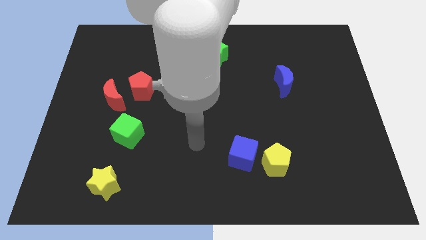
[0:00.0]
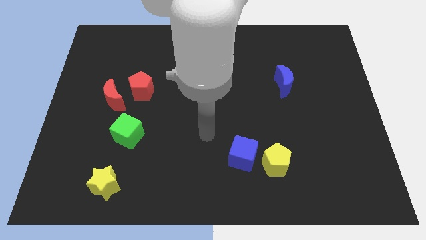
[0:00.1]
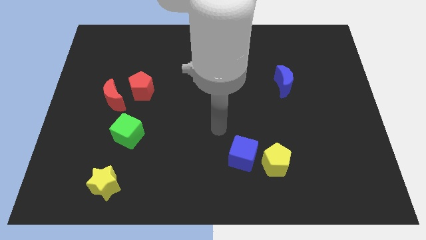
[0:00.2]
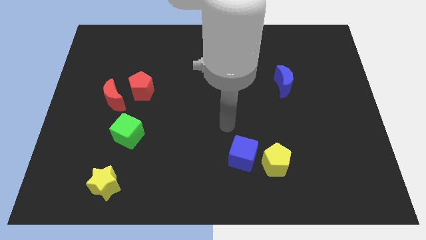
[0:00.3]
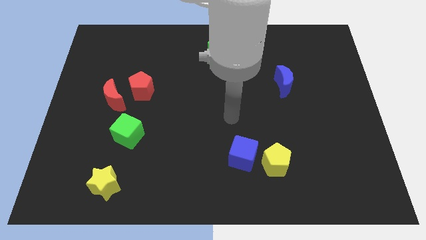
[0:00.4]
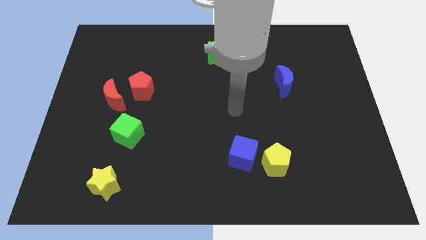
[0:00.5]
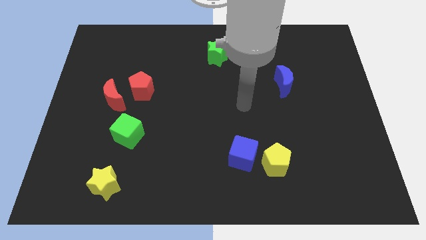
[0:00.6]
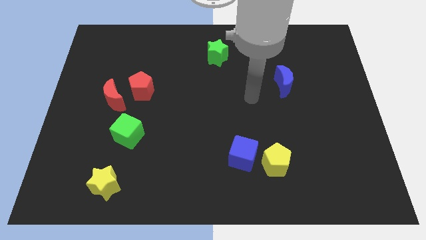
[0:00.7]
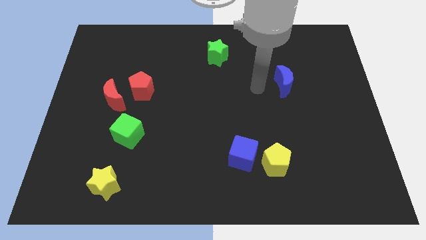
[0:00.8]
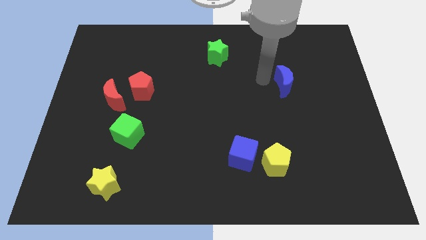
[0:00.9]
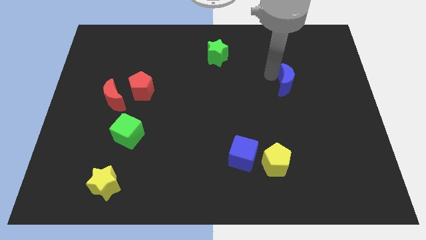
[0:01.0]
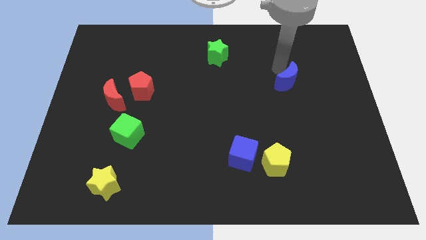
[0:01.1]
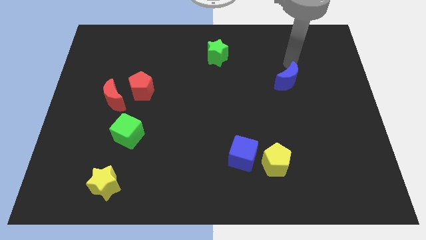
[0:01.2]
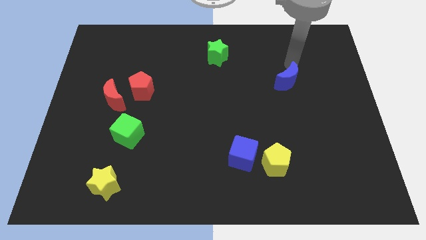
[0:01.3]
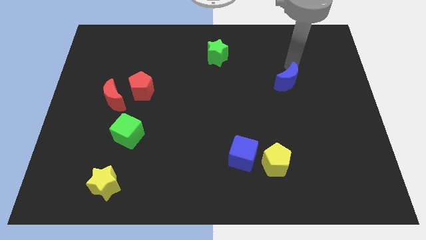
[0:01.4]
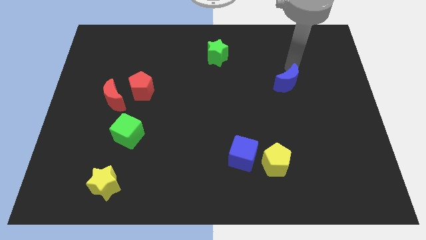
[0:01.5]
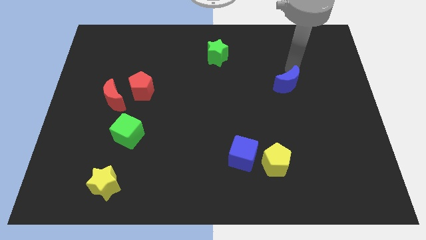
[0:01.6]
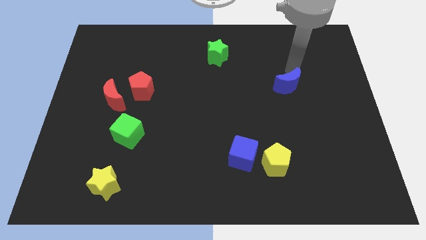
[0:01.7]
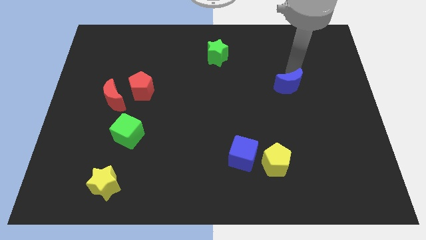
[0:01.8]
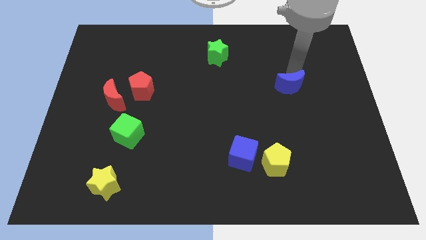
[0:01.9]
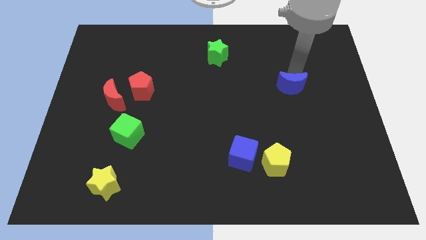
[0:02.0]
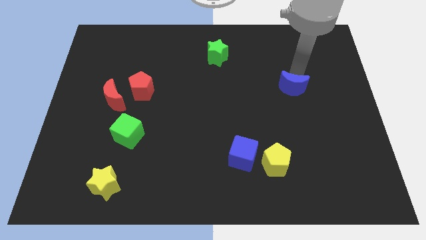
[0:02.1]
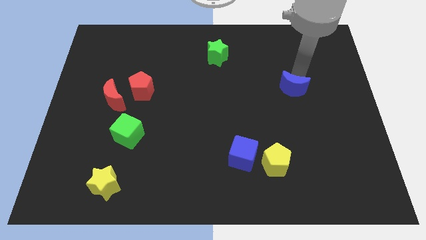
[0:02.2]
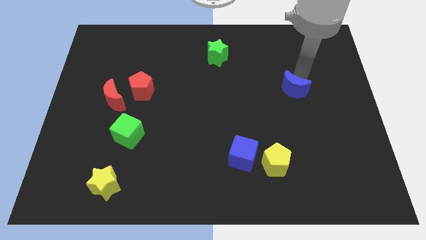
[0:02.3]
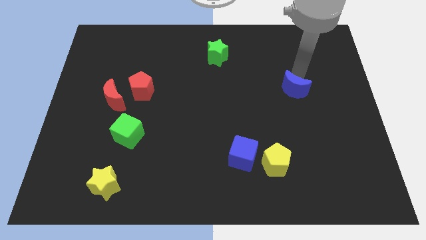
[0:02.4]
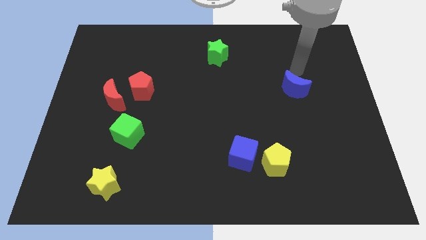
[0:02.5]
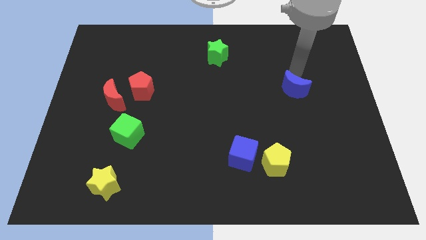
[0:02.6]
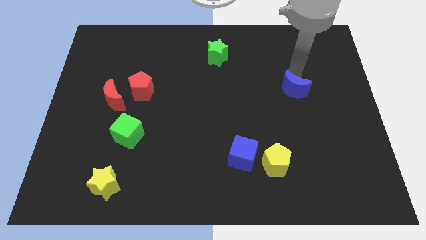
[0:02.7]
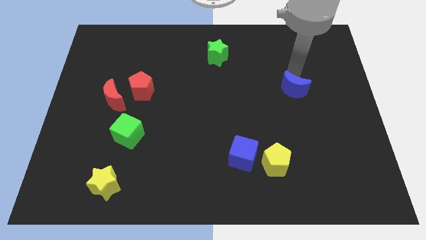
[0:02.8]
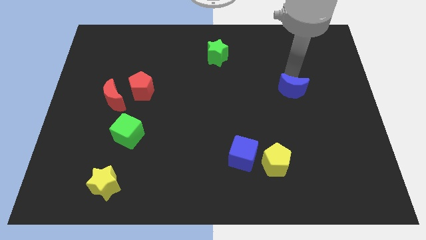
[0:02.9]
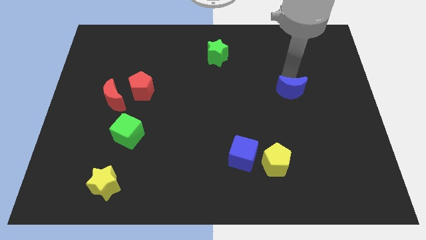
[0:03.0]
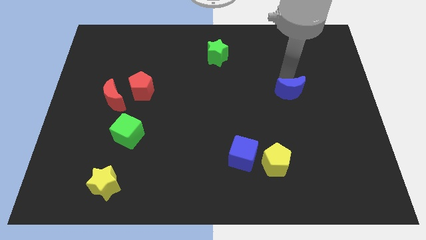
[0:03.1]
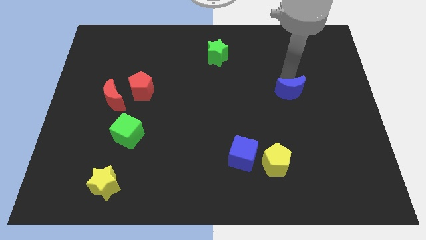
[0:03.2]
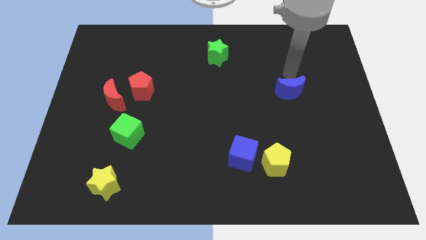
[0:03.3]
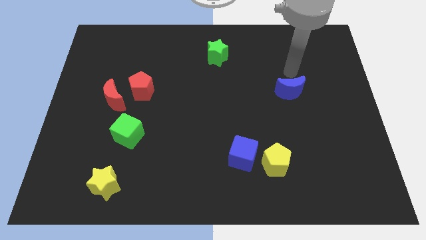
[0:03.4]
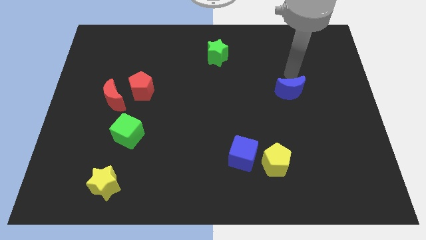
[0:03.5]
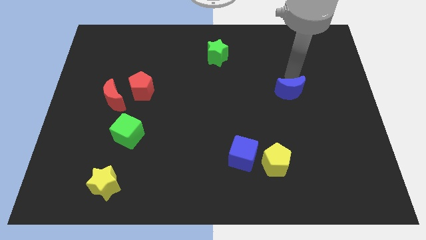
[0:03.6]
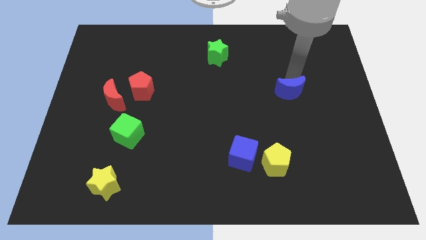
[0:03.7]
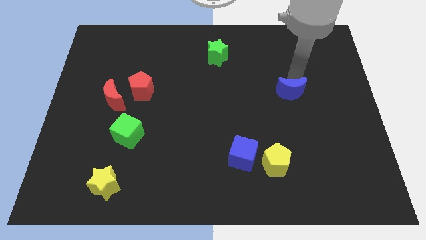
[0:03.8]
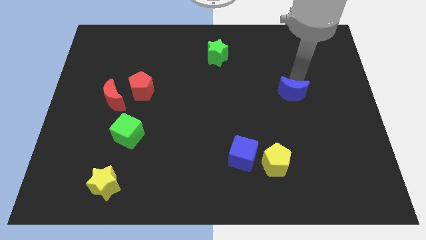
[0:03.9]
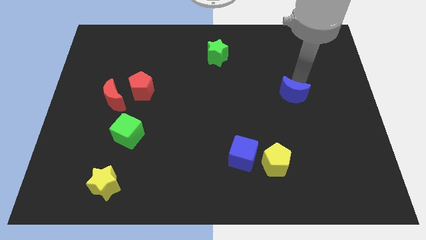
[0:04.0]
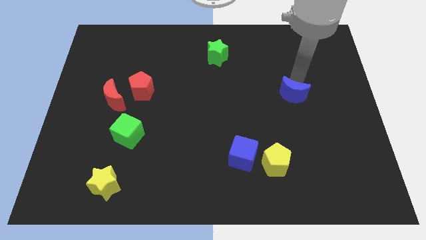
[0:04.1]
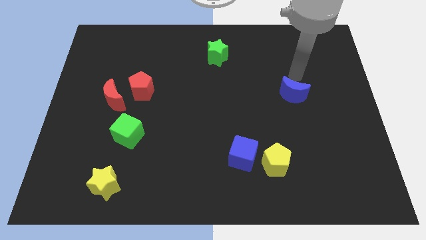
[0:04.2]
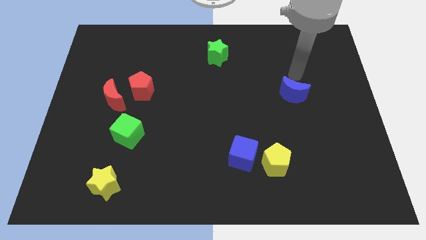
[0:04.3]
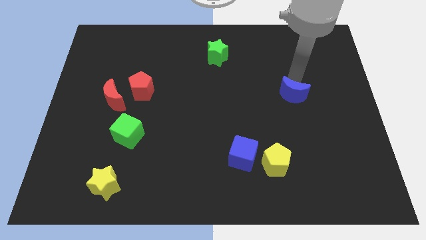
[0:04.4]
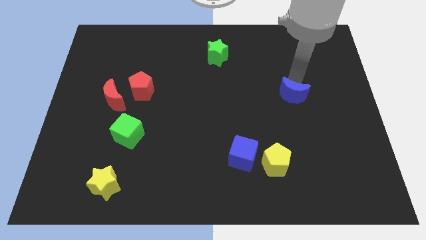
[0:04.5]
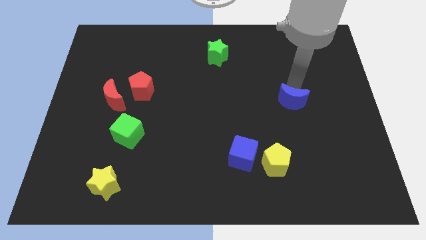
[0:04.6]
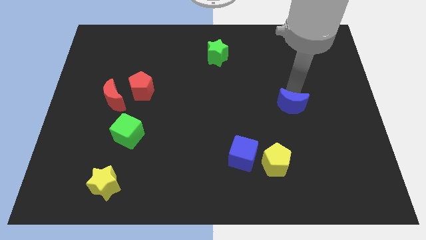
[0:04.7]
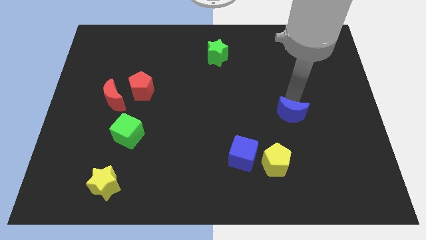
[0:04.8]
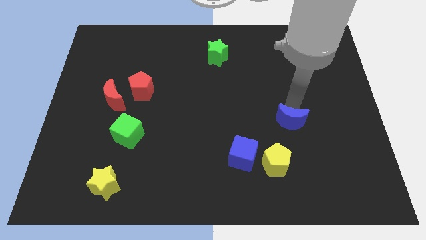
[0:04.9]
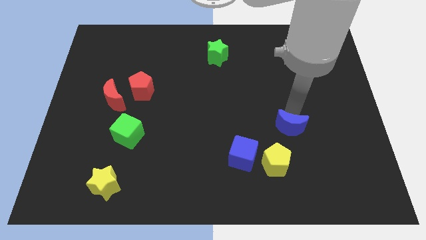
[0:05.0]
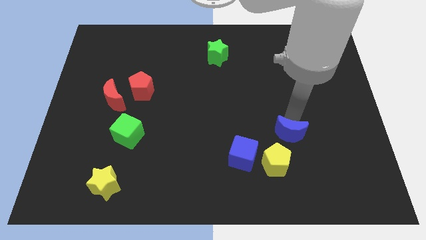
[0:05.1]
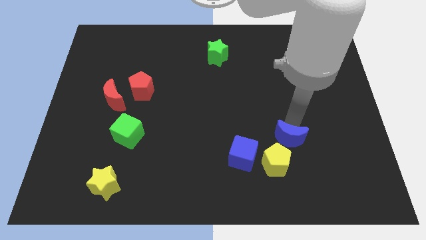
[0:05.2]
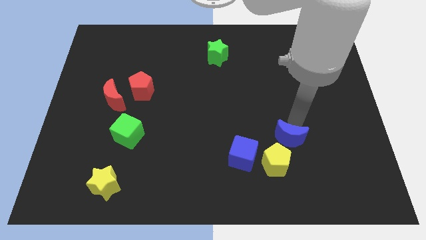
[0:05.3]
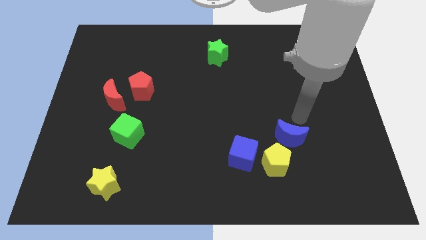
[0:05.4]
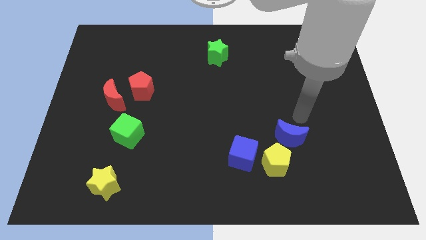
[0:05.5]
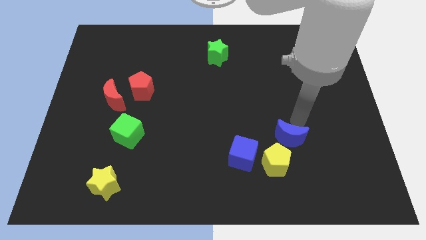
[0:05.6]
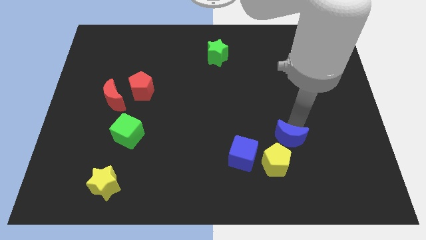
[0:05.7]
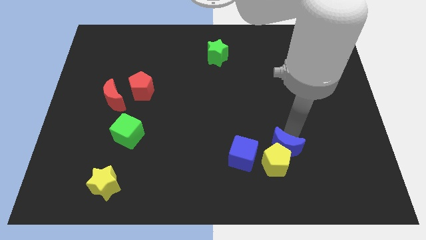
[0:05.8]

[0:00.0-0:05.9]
slide the blue moon towards the yellow pentagon
